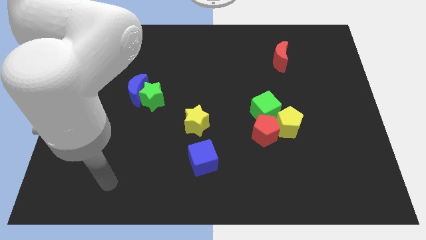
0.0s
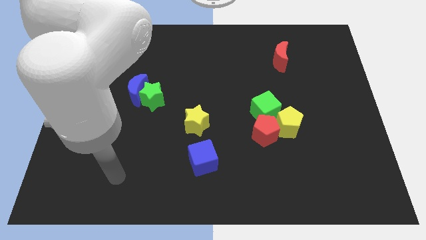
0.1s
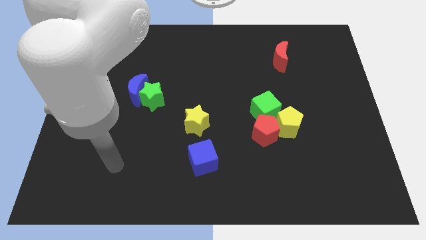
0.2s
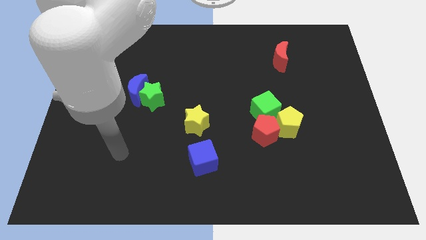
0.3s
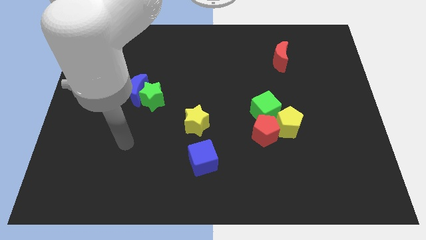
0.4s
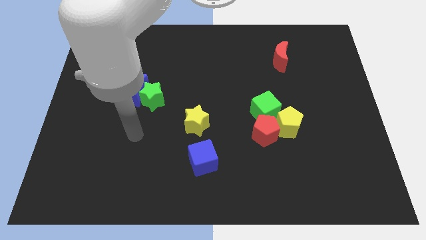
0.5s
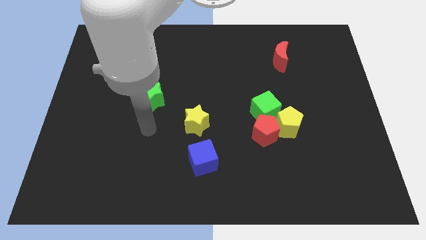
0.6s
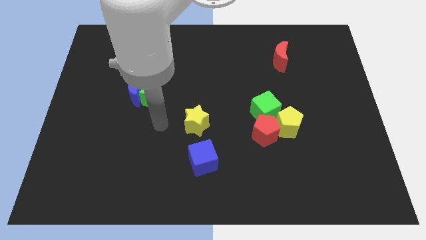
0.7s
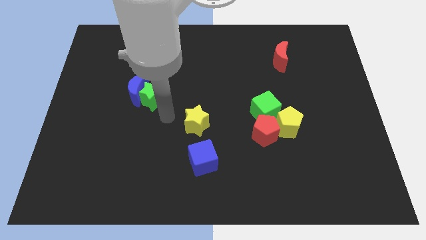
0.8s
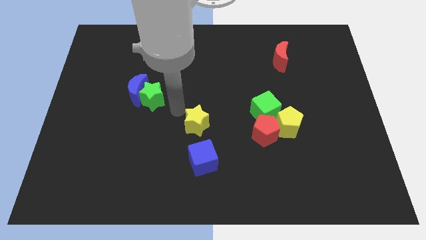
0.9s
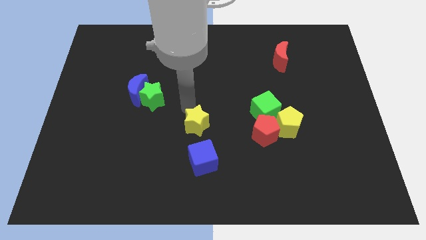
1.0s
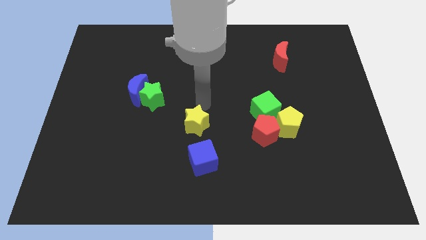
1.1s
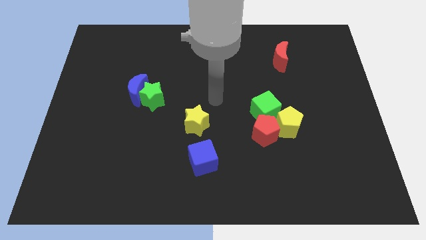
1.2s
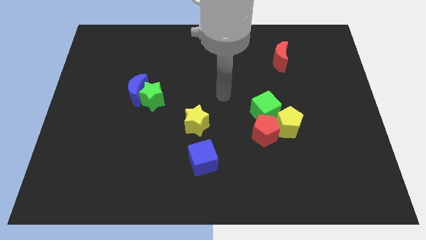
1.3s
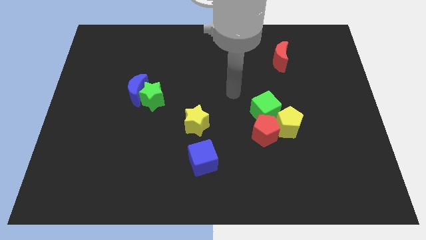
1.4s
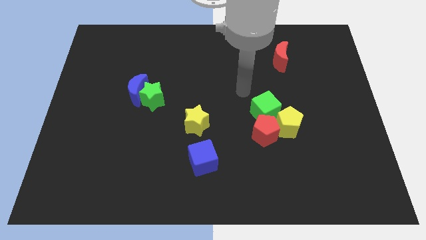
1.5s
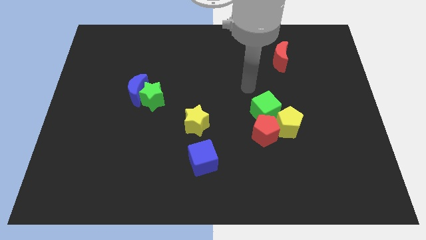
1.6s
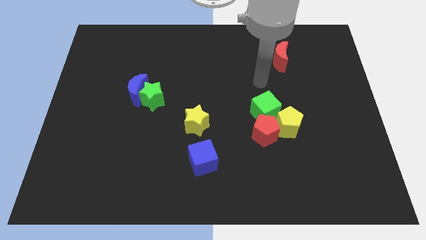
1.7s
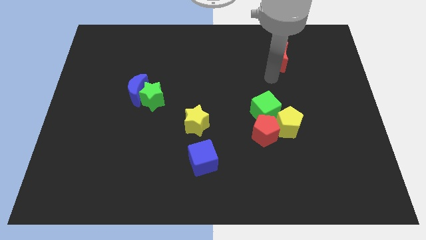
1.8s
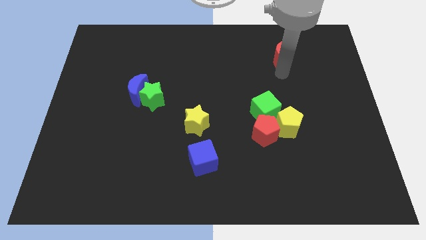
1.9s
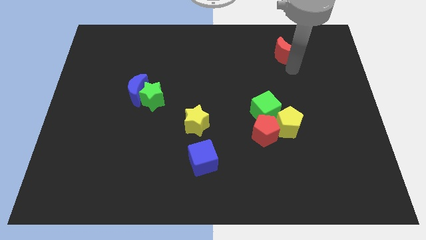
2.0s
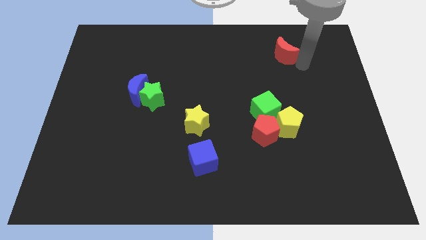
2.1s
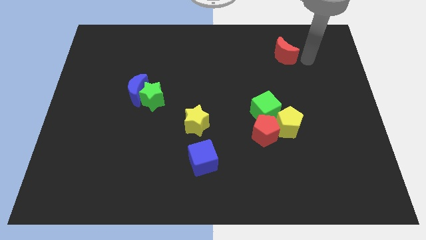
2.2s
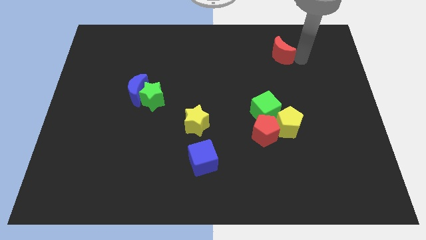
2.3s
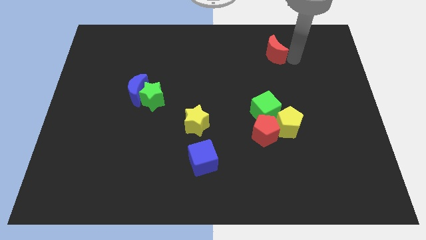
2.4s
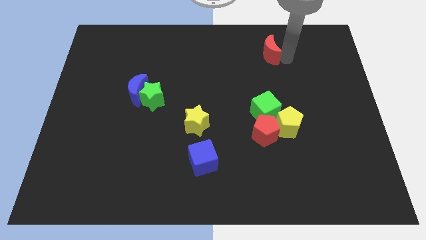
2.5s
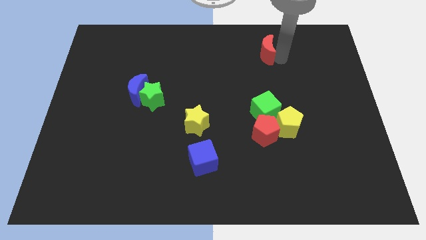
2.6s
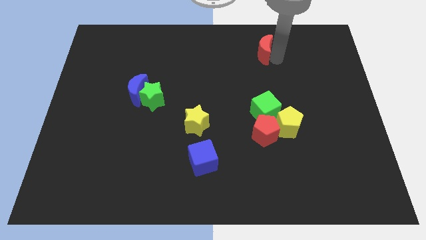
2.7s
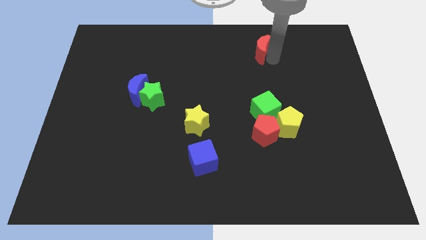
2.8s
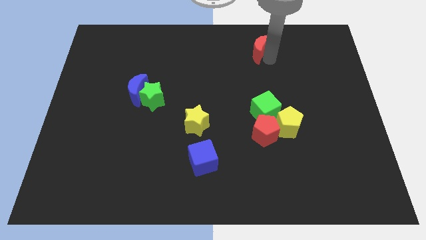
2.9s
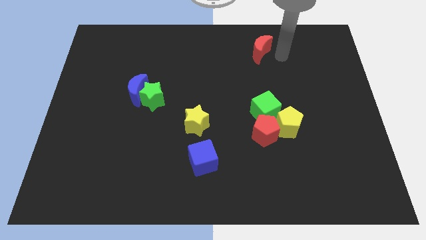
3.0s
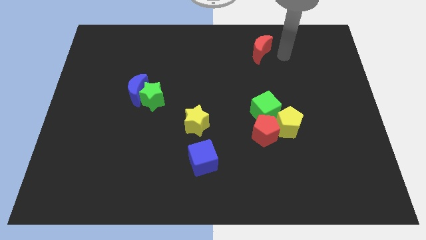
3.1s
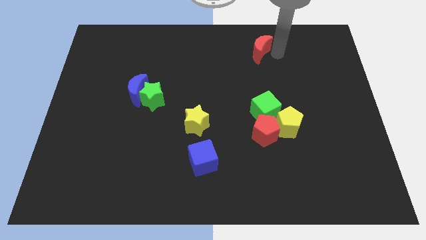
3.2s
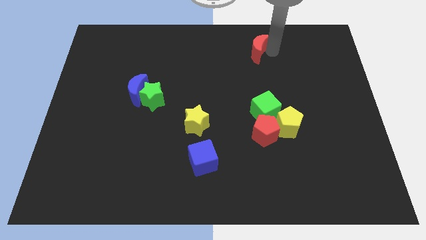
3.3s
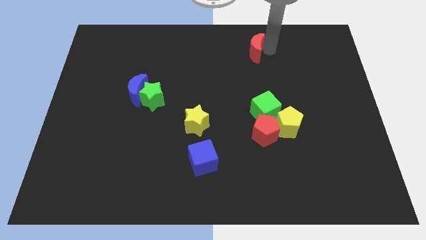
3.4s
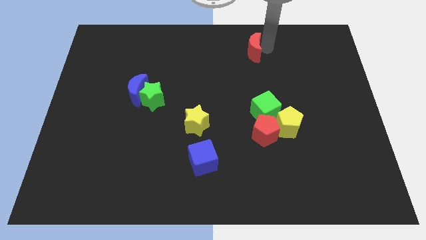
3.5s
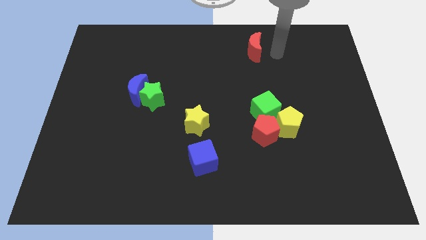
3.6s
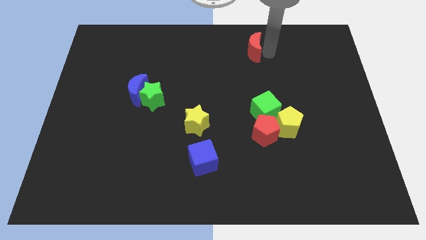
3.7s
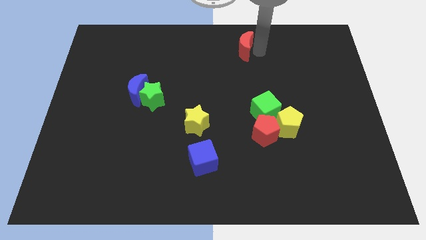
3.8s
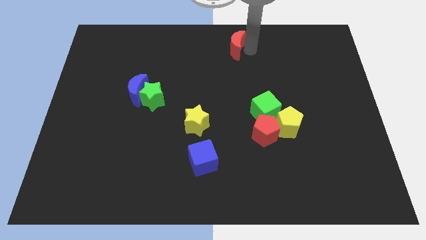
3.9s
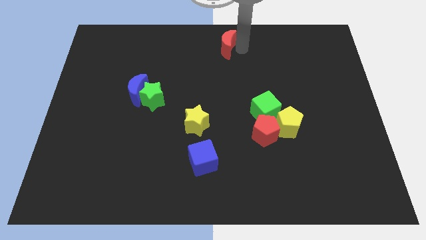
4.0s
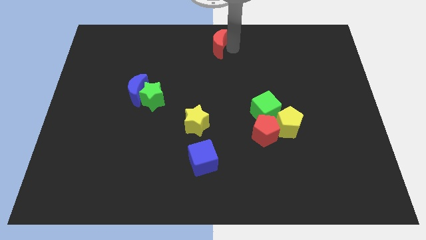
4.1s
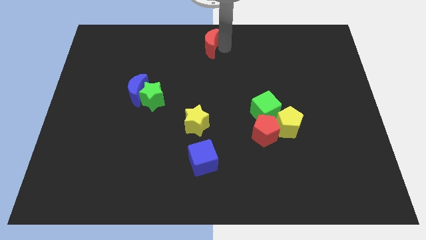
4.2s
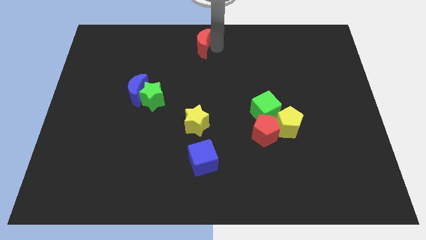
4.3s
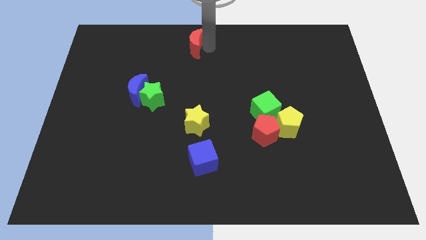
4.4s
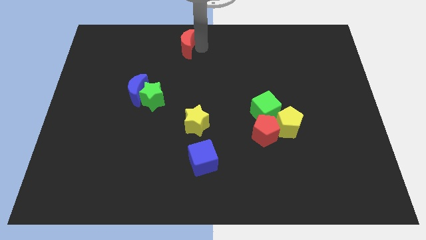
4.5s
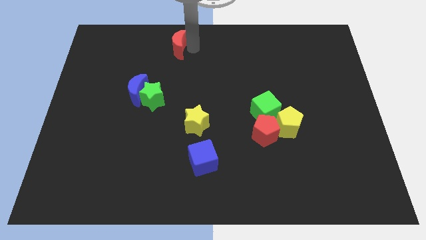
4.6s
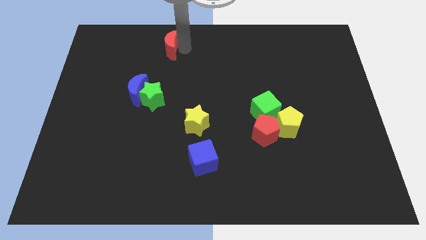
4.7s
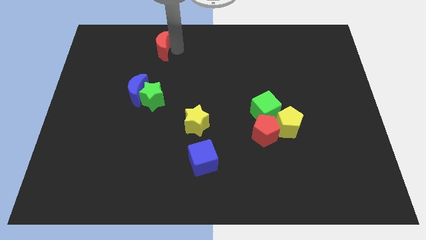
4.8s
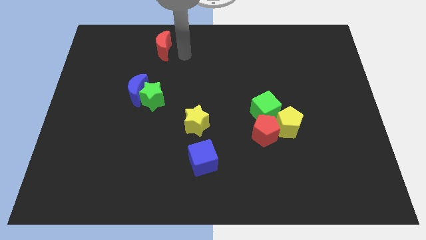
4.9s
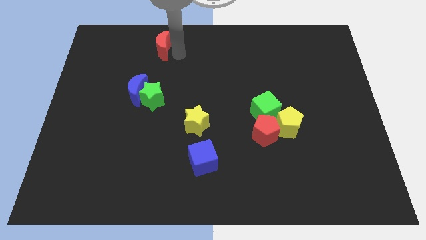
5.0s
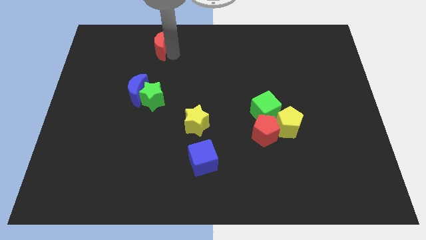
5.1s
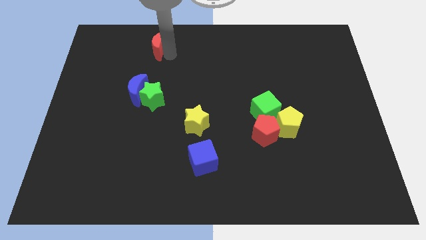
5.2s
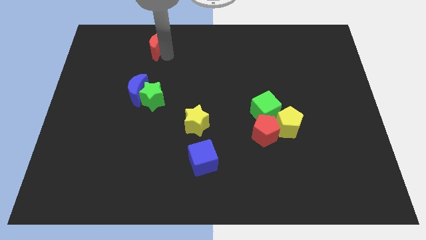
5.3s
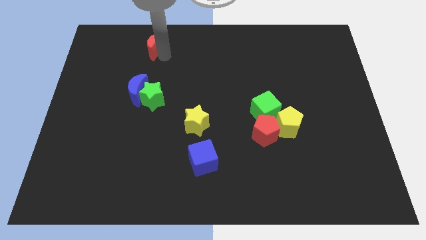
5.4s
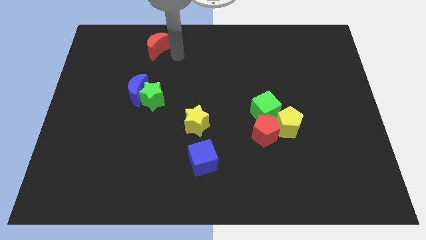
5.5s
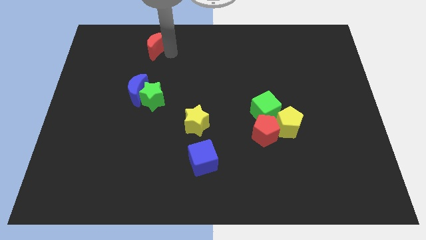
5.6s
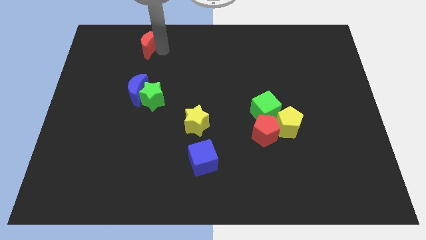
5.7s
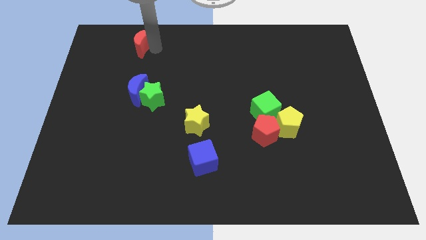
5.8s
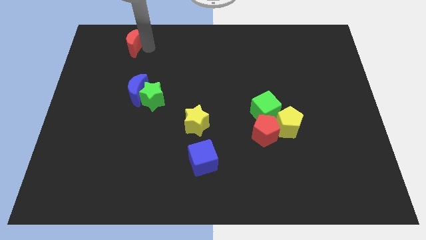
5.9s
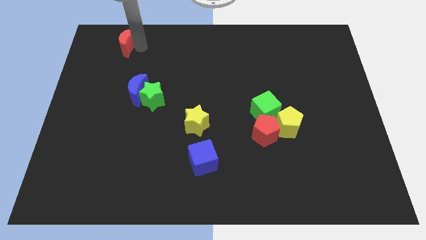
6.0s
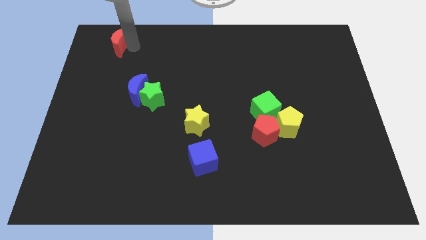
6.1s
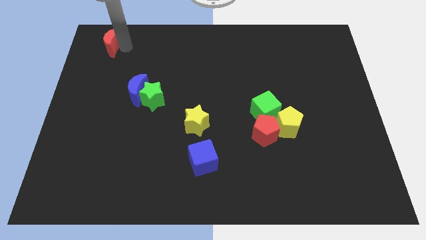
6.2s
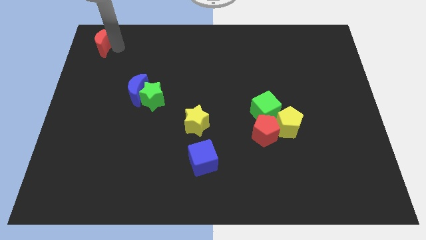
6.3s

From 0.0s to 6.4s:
push the red moon to the top left
